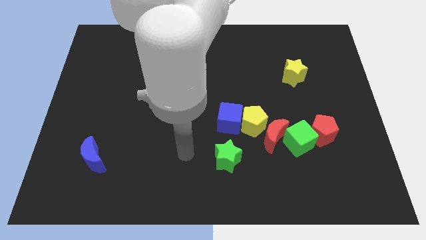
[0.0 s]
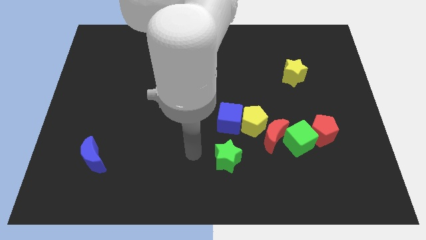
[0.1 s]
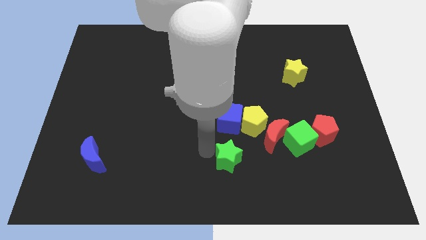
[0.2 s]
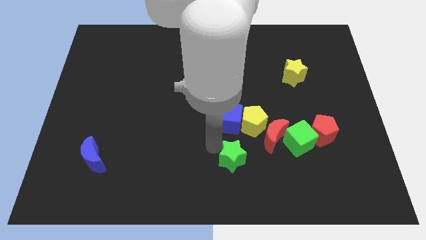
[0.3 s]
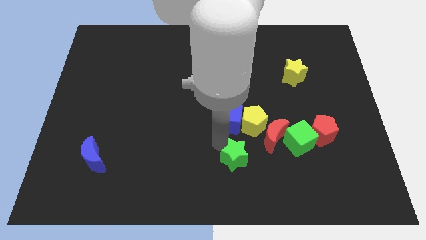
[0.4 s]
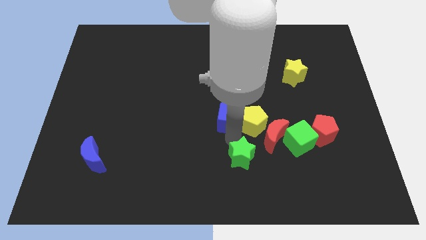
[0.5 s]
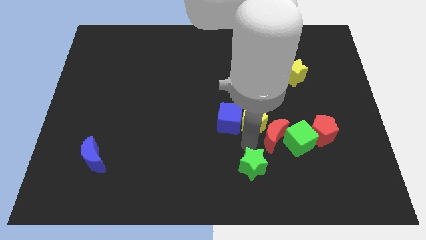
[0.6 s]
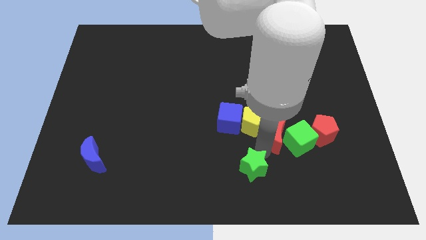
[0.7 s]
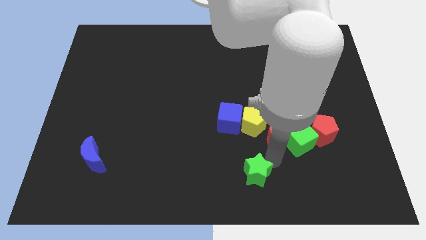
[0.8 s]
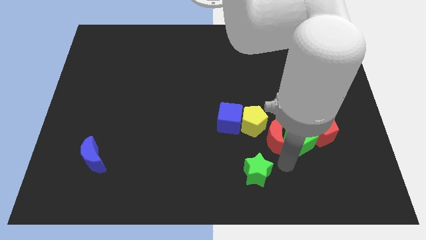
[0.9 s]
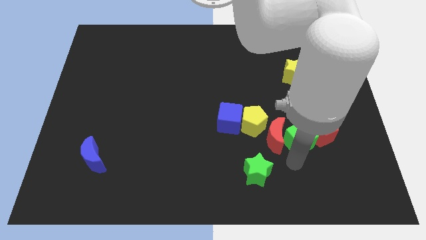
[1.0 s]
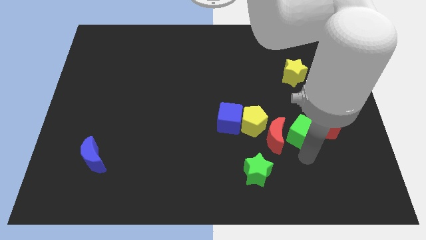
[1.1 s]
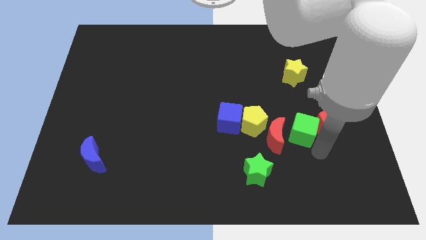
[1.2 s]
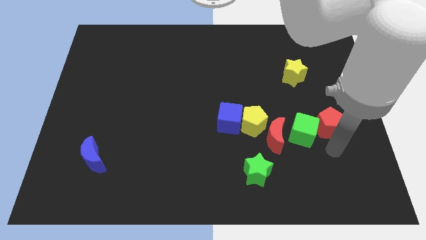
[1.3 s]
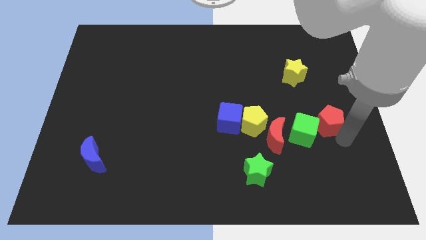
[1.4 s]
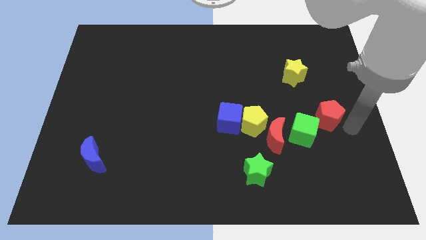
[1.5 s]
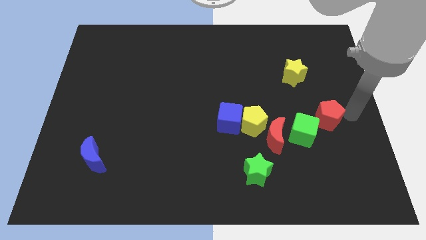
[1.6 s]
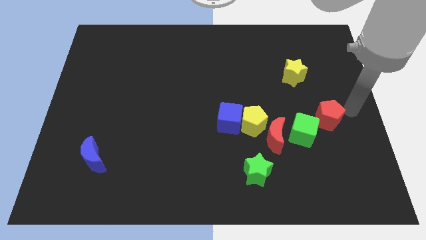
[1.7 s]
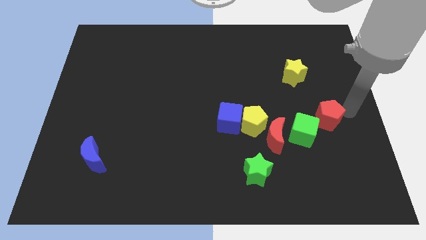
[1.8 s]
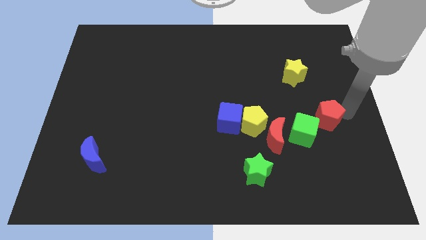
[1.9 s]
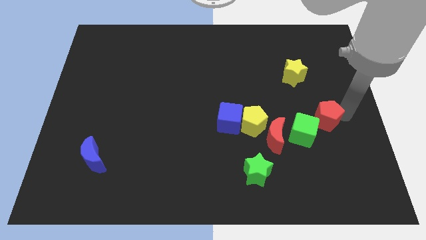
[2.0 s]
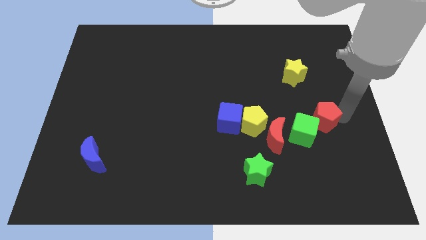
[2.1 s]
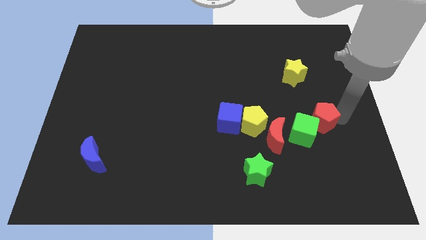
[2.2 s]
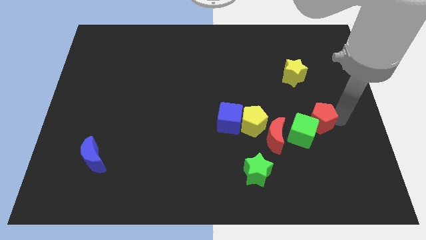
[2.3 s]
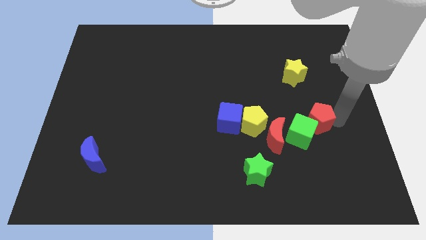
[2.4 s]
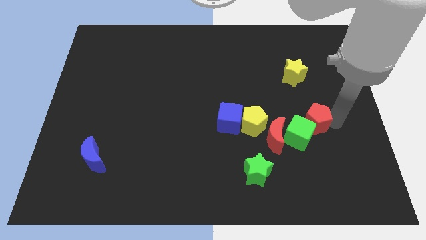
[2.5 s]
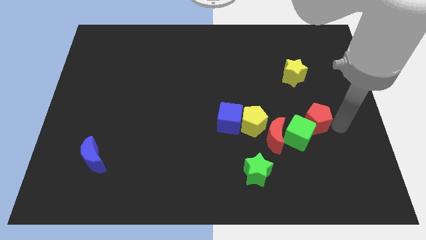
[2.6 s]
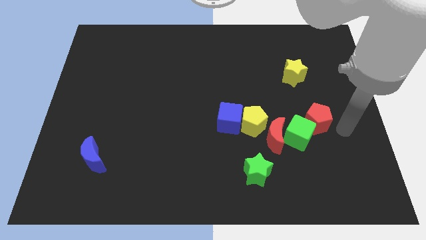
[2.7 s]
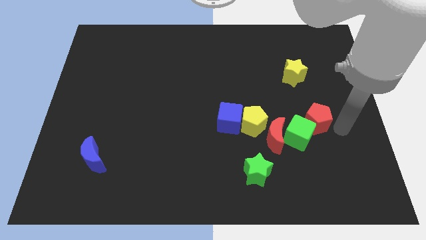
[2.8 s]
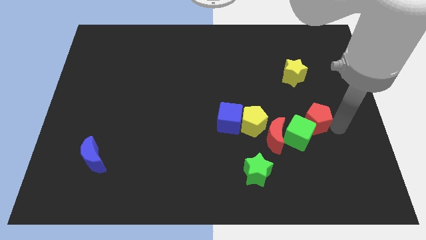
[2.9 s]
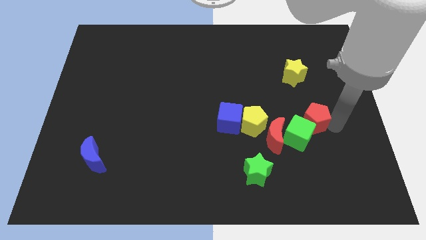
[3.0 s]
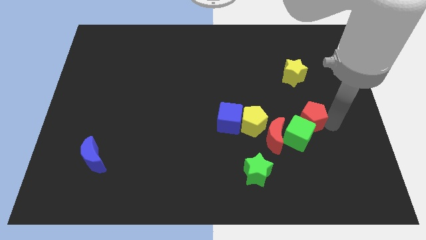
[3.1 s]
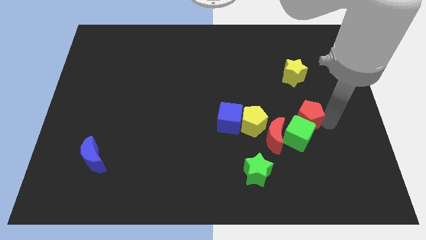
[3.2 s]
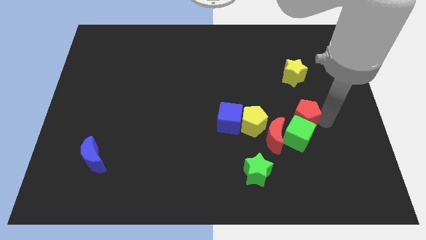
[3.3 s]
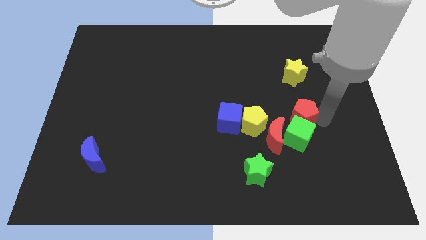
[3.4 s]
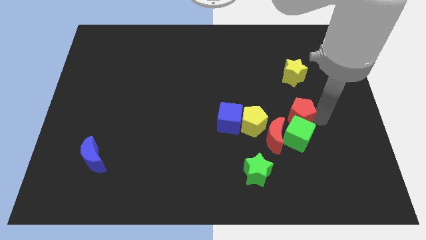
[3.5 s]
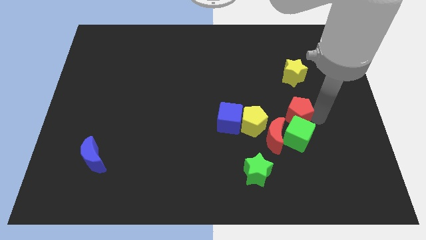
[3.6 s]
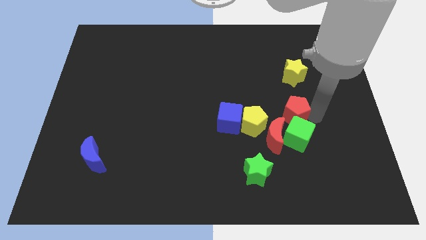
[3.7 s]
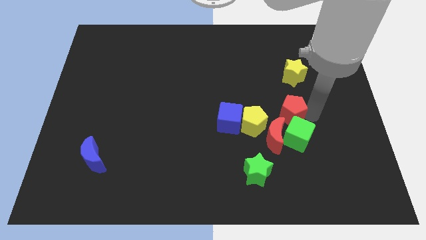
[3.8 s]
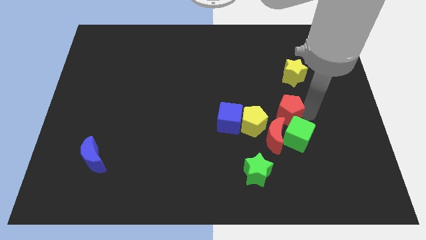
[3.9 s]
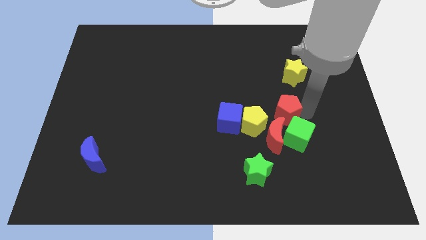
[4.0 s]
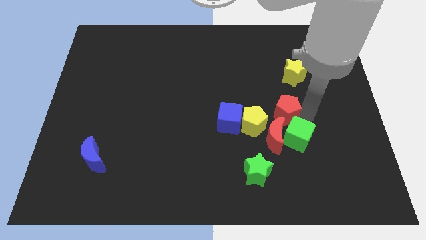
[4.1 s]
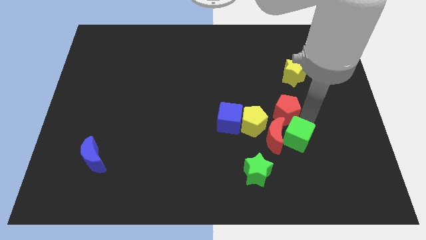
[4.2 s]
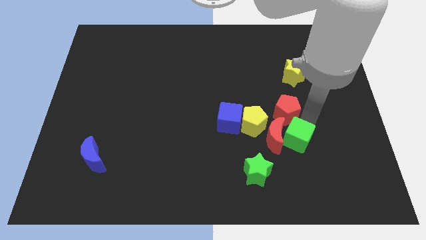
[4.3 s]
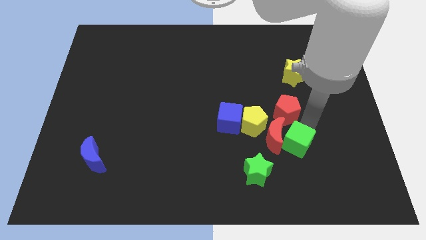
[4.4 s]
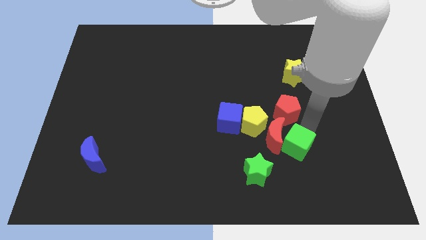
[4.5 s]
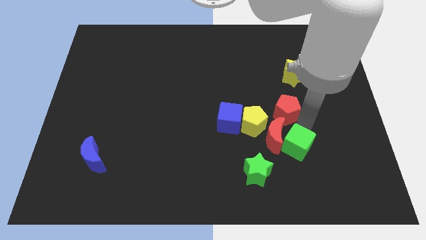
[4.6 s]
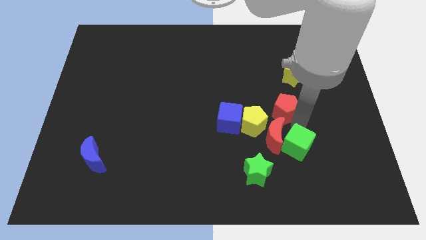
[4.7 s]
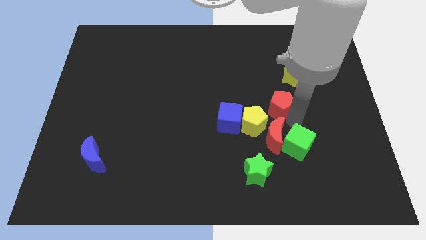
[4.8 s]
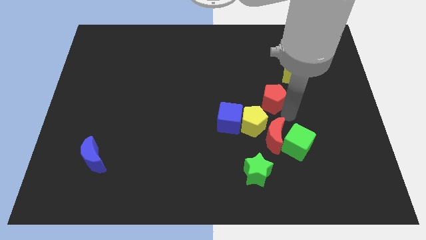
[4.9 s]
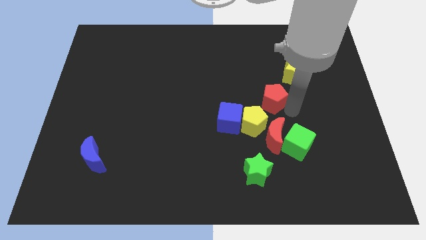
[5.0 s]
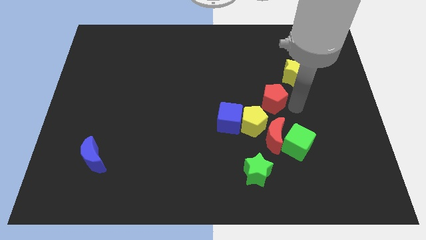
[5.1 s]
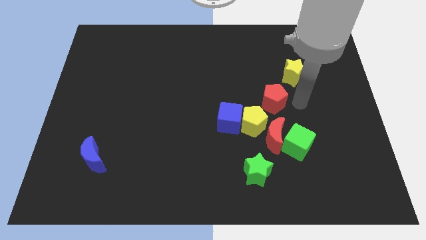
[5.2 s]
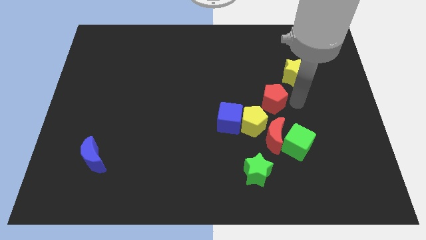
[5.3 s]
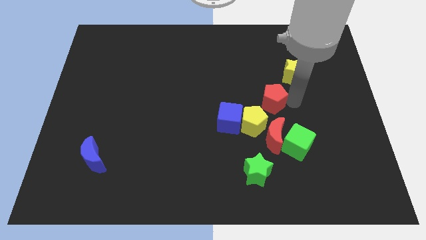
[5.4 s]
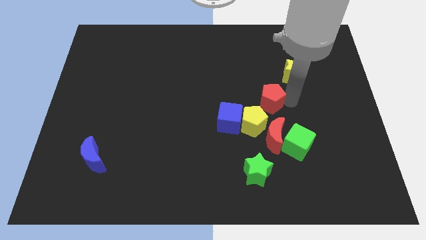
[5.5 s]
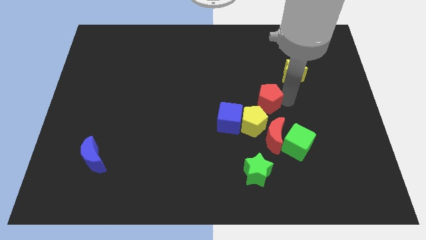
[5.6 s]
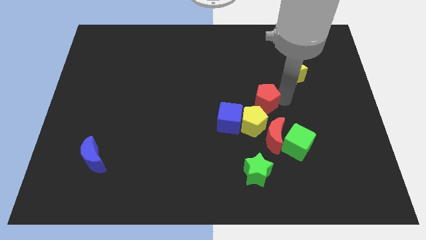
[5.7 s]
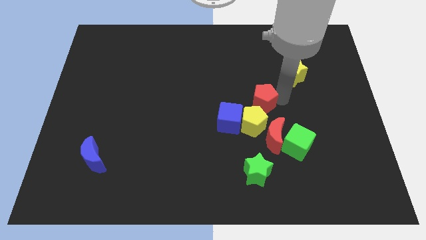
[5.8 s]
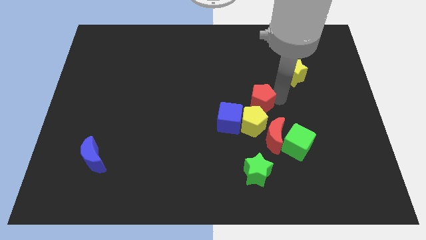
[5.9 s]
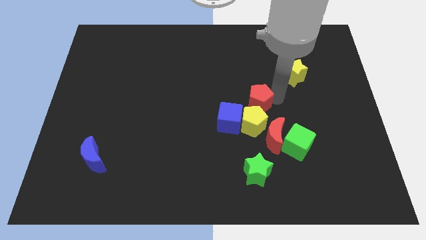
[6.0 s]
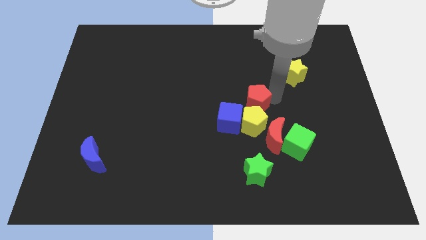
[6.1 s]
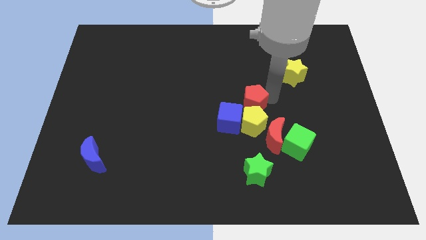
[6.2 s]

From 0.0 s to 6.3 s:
slide the red pentagon to the top left of the yellow pentagon
